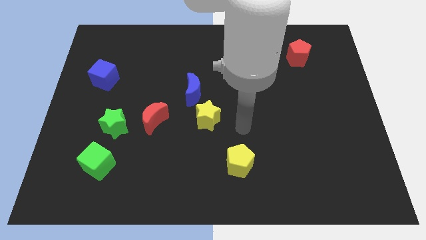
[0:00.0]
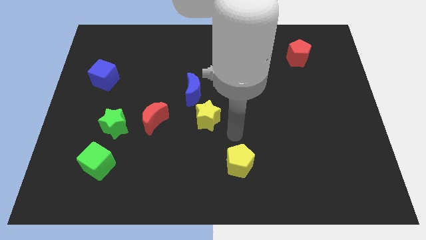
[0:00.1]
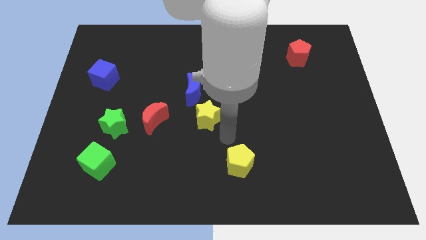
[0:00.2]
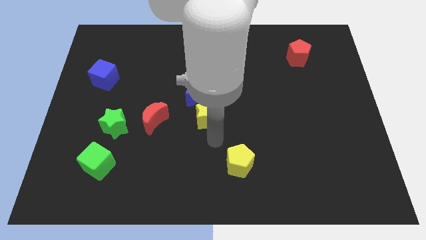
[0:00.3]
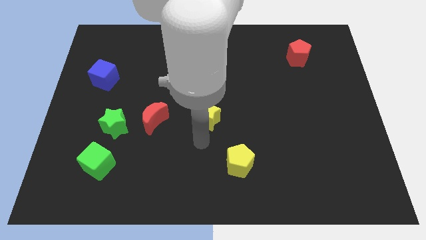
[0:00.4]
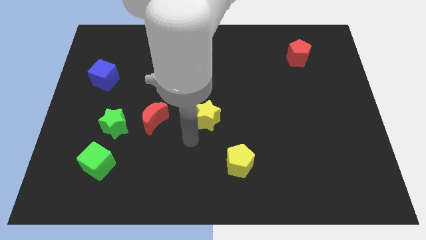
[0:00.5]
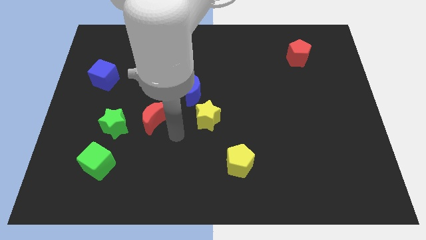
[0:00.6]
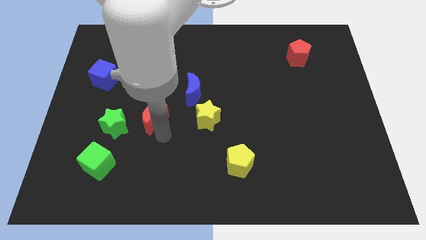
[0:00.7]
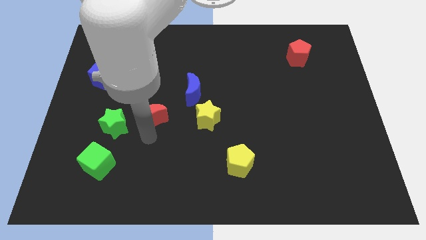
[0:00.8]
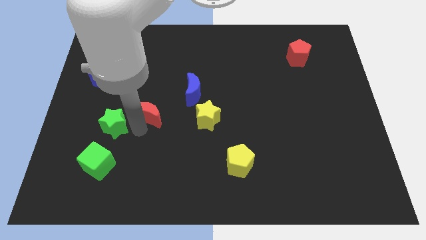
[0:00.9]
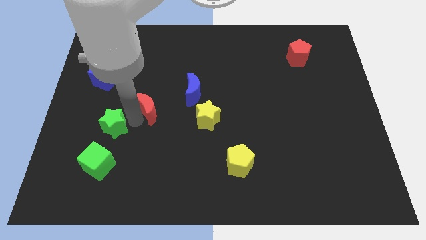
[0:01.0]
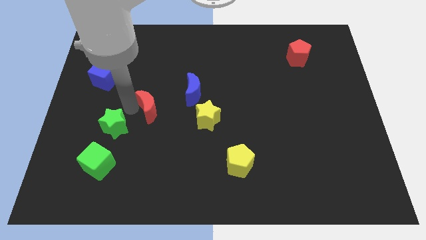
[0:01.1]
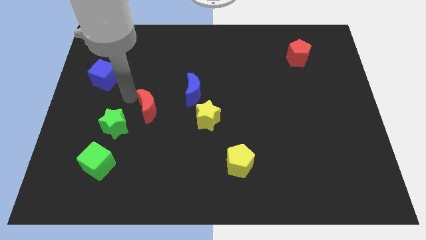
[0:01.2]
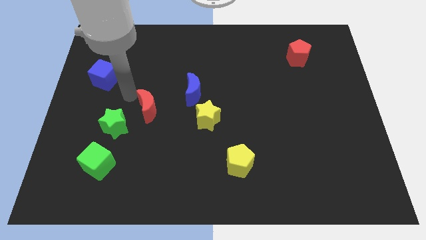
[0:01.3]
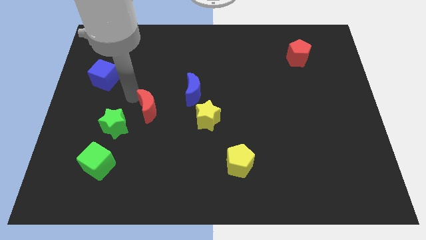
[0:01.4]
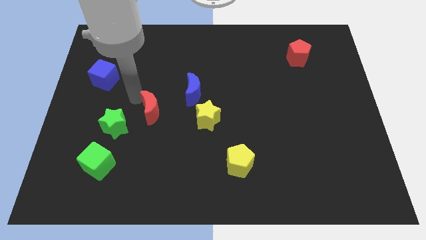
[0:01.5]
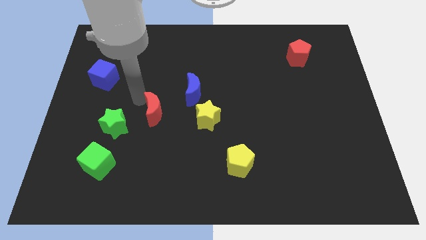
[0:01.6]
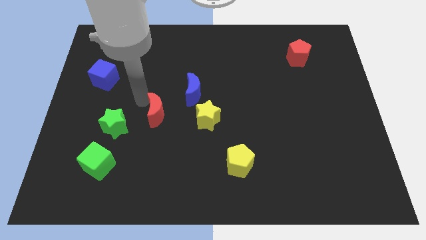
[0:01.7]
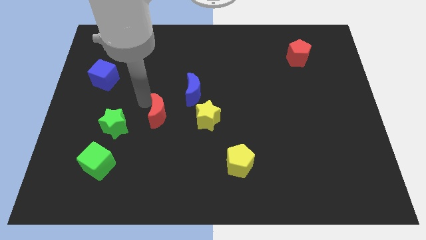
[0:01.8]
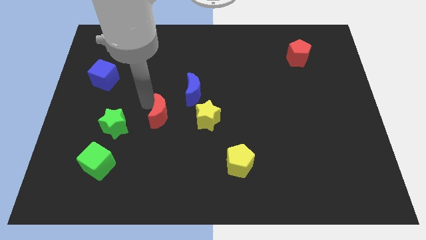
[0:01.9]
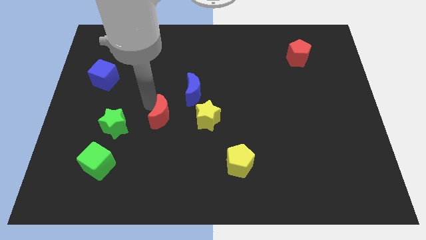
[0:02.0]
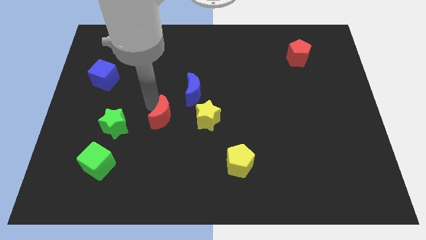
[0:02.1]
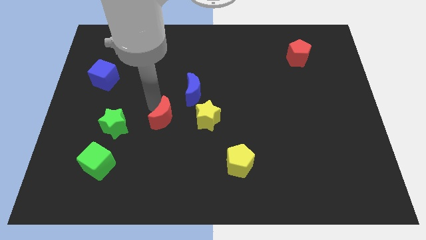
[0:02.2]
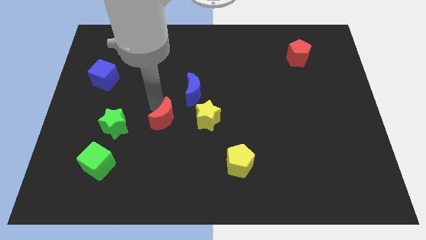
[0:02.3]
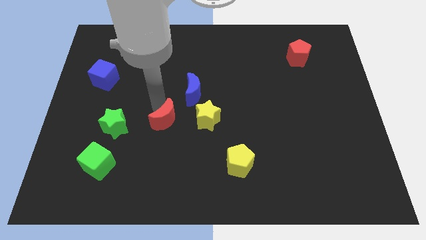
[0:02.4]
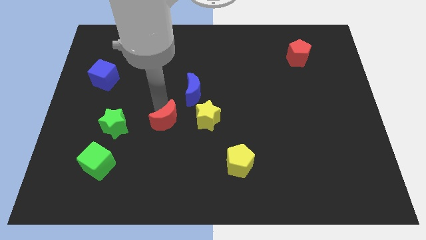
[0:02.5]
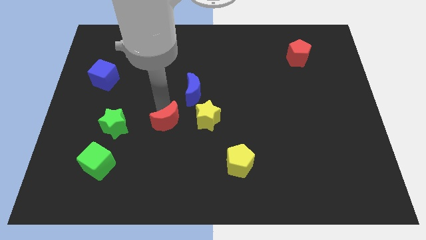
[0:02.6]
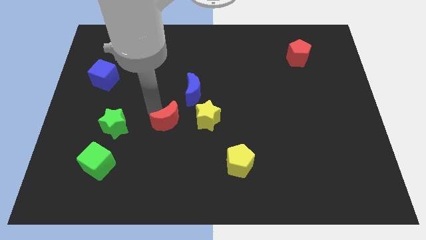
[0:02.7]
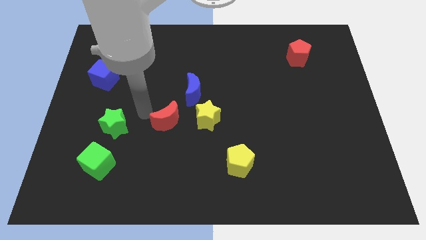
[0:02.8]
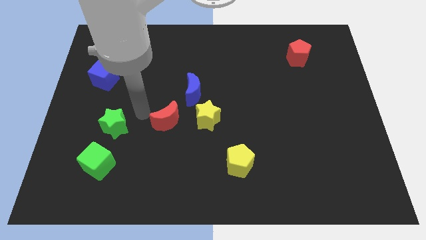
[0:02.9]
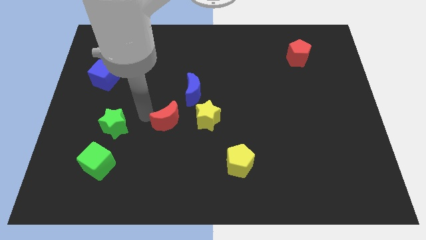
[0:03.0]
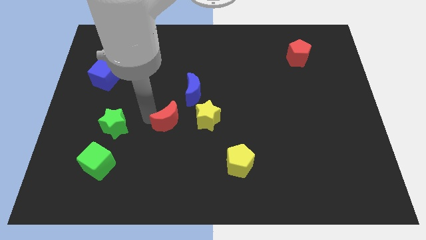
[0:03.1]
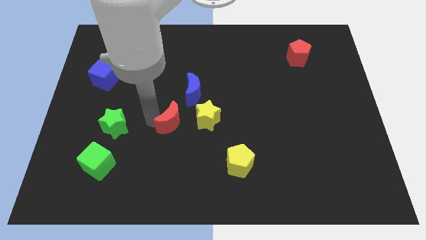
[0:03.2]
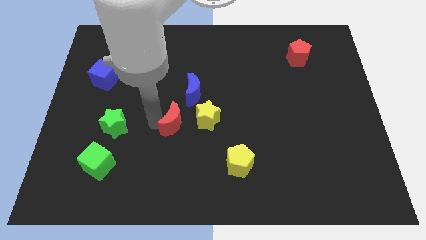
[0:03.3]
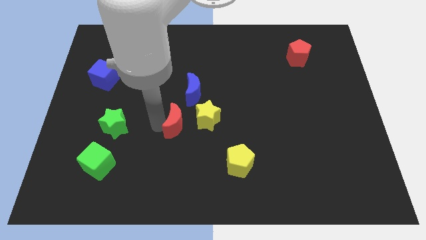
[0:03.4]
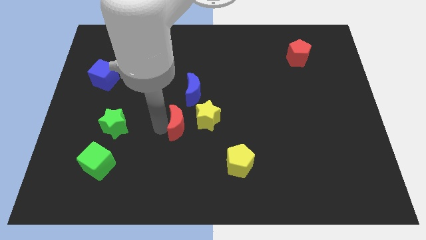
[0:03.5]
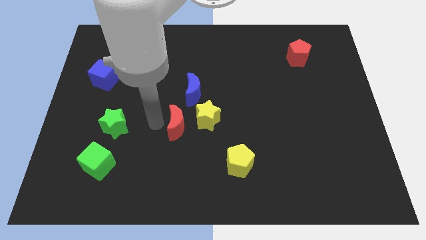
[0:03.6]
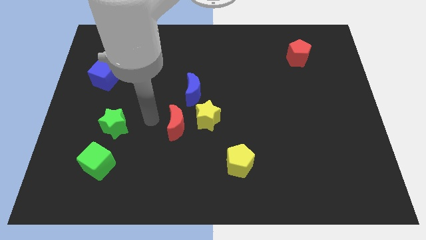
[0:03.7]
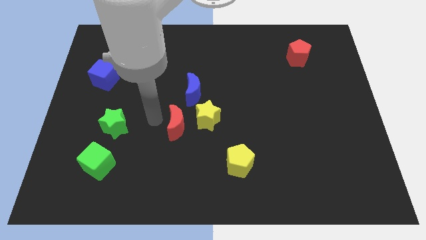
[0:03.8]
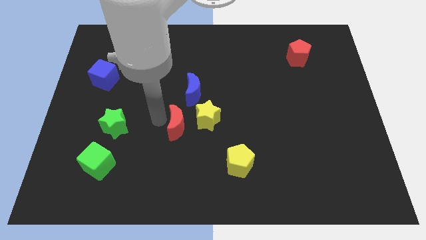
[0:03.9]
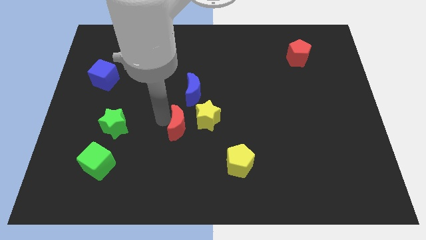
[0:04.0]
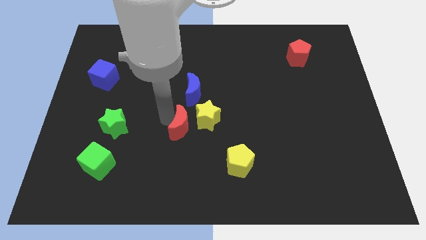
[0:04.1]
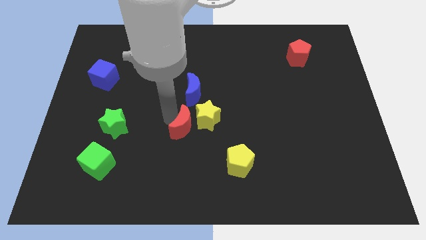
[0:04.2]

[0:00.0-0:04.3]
slide the red moon slightly right

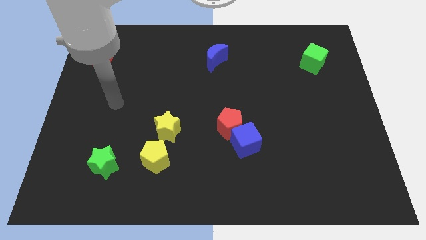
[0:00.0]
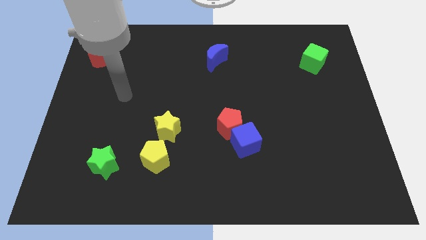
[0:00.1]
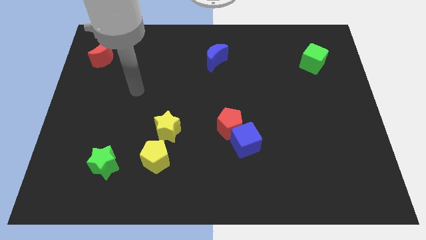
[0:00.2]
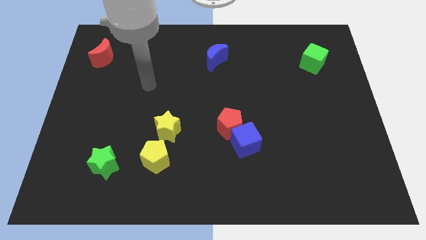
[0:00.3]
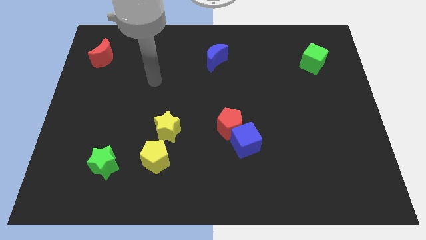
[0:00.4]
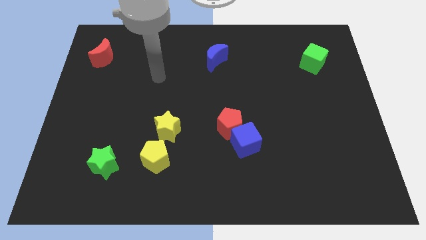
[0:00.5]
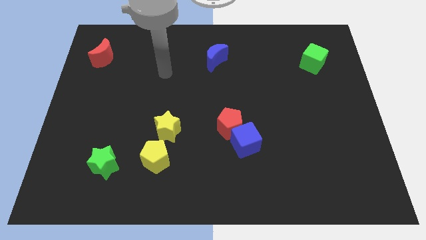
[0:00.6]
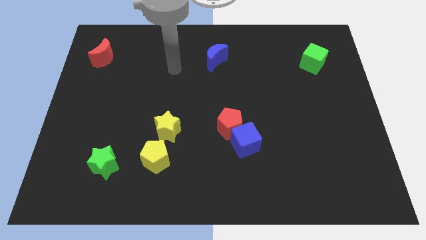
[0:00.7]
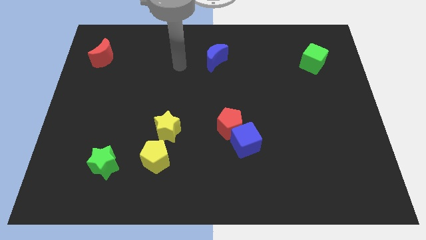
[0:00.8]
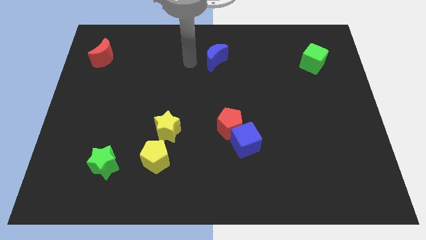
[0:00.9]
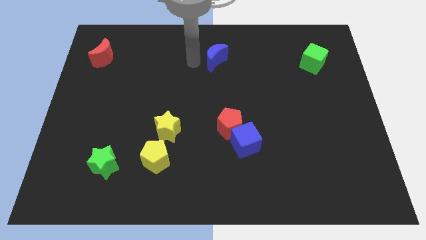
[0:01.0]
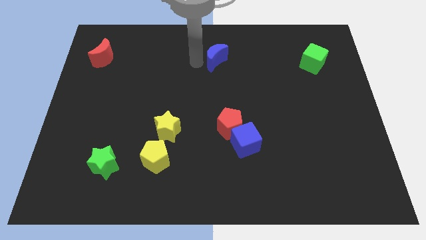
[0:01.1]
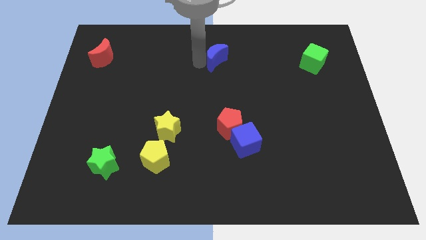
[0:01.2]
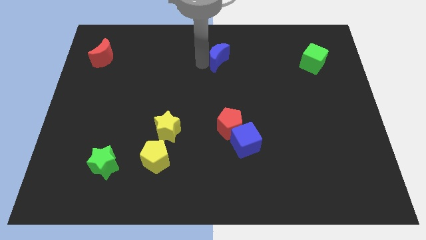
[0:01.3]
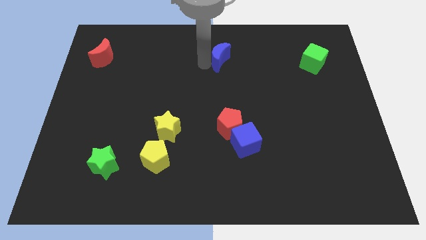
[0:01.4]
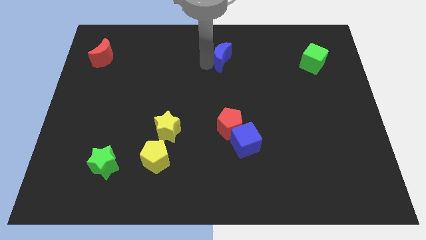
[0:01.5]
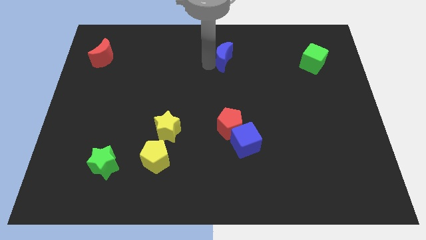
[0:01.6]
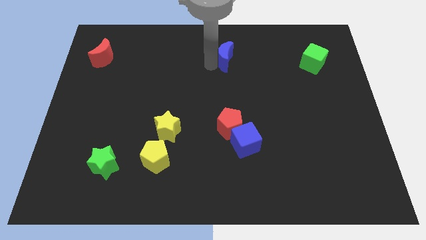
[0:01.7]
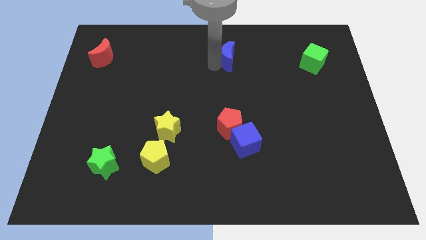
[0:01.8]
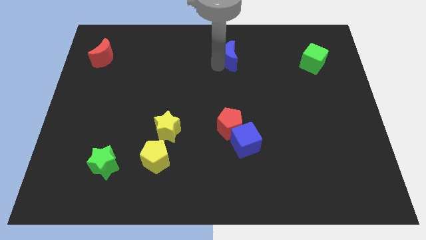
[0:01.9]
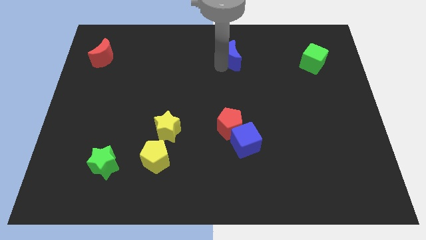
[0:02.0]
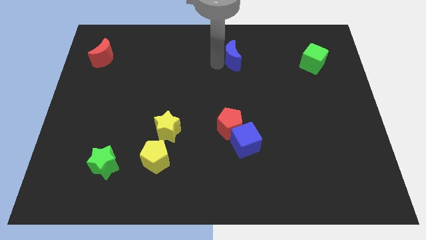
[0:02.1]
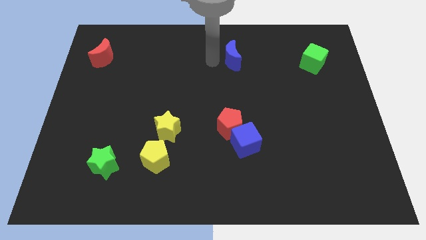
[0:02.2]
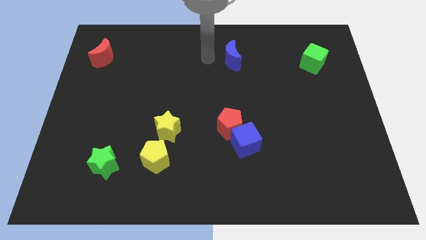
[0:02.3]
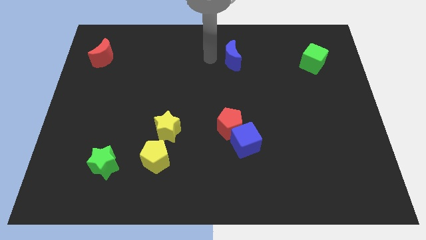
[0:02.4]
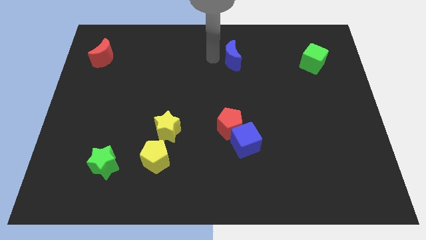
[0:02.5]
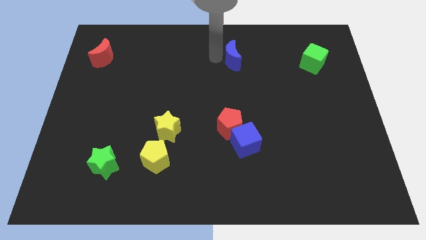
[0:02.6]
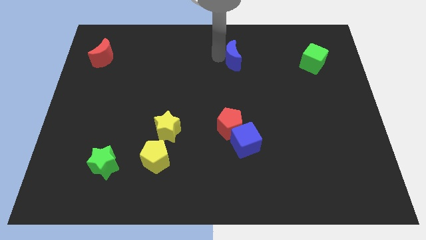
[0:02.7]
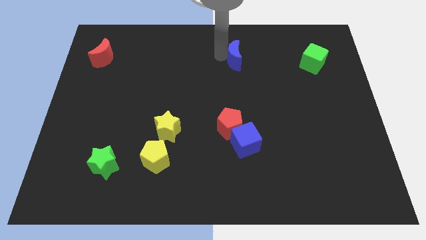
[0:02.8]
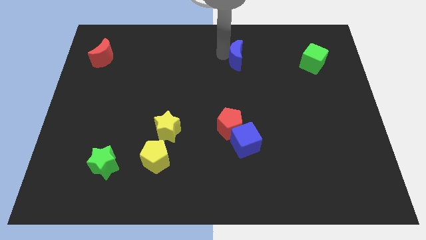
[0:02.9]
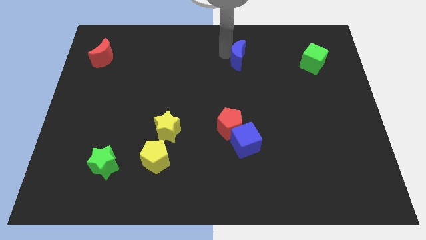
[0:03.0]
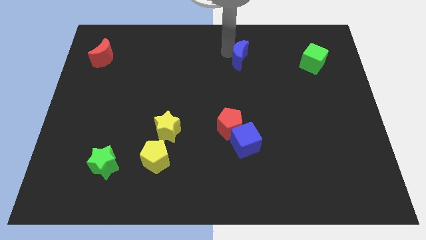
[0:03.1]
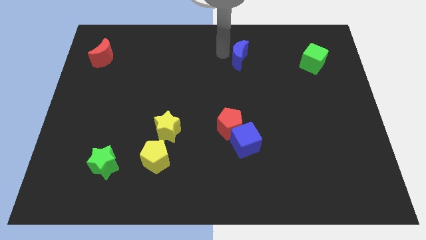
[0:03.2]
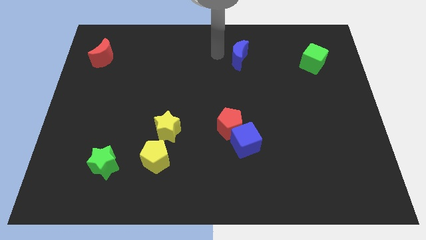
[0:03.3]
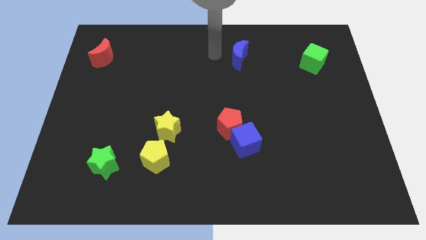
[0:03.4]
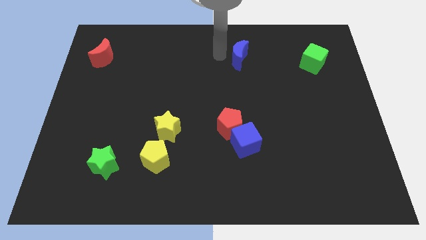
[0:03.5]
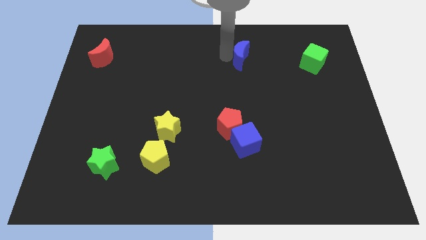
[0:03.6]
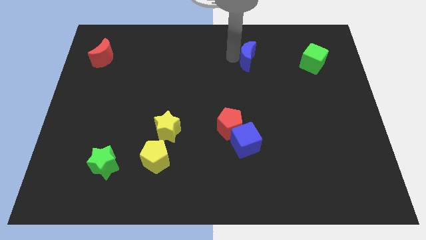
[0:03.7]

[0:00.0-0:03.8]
move the blue moon a bit right

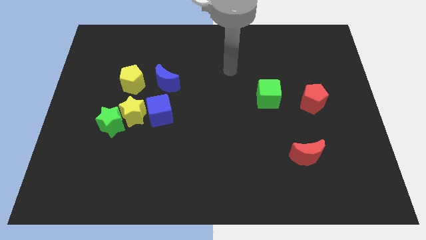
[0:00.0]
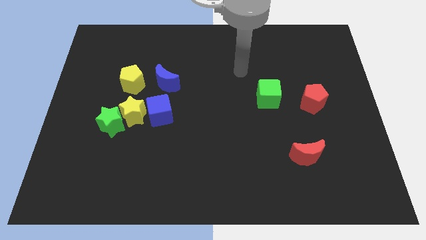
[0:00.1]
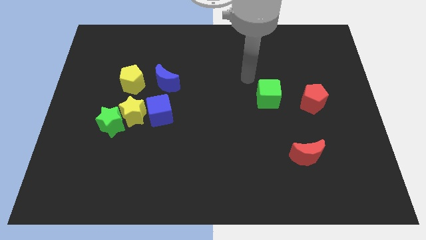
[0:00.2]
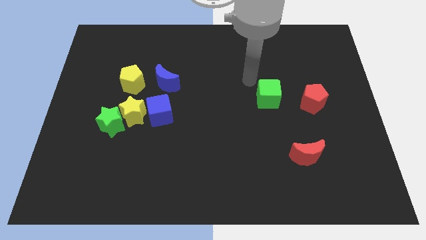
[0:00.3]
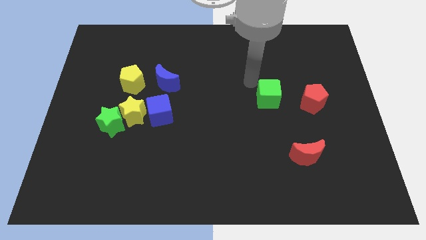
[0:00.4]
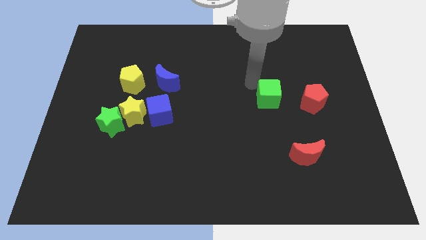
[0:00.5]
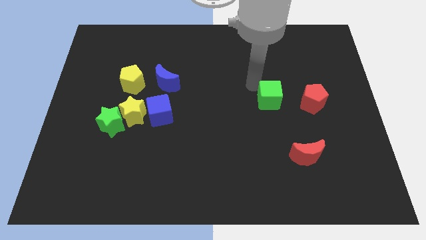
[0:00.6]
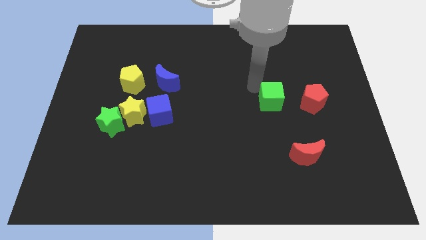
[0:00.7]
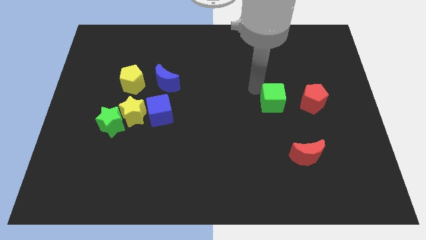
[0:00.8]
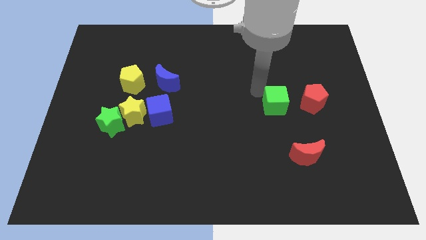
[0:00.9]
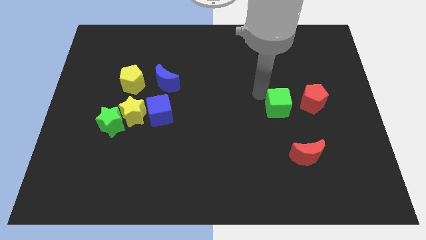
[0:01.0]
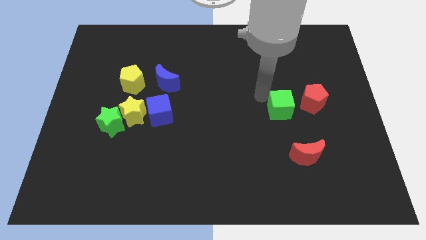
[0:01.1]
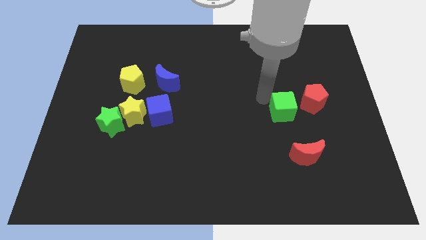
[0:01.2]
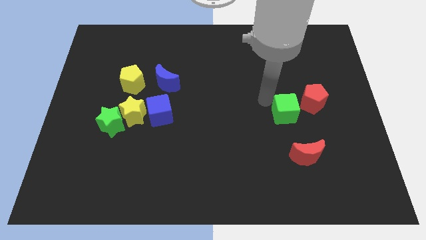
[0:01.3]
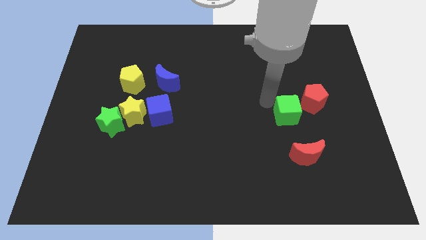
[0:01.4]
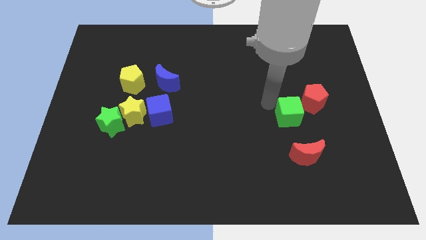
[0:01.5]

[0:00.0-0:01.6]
slightly move the green cube down and right diagonally
